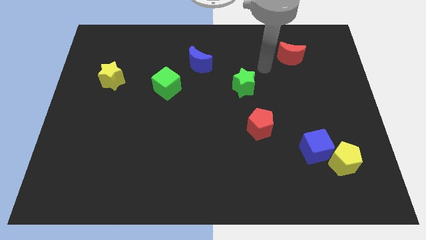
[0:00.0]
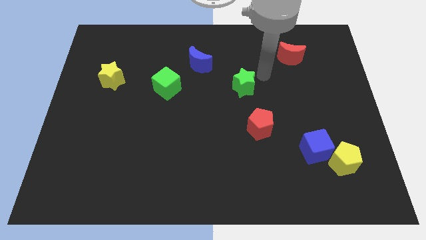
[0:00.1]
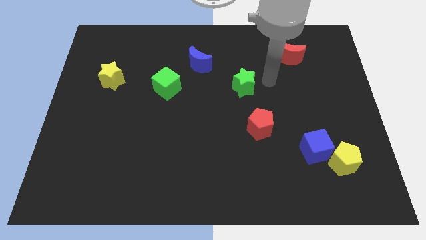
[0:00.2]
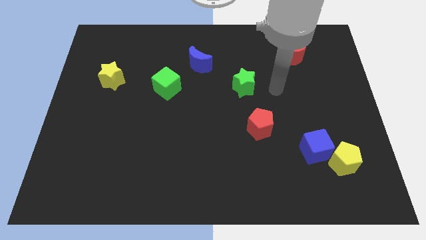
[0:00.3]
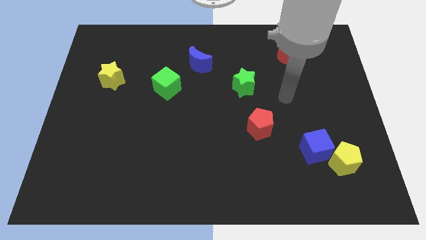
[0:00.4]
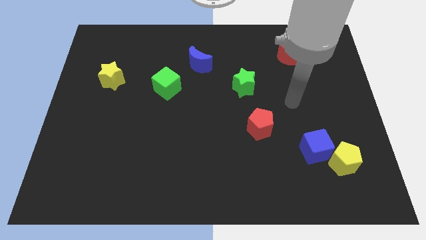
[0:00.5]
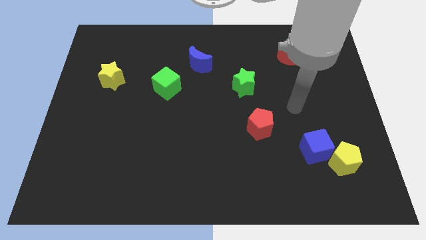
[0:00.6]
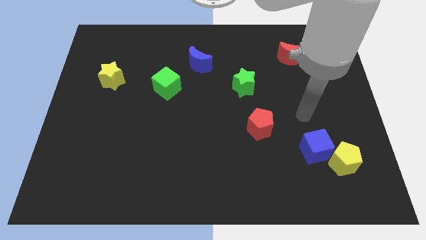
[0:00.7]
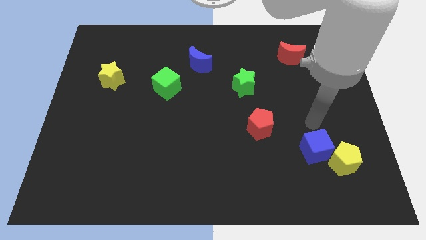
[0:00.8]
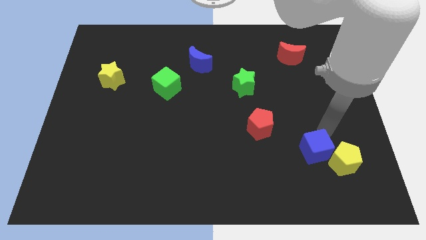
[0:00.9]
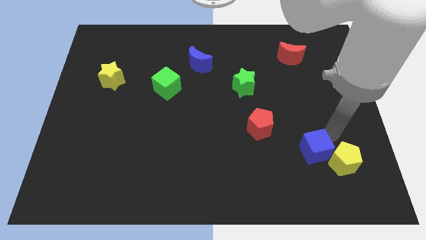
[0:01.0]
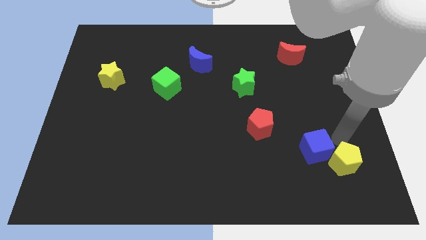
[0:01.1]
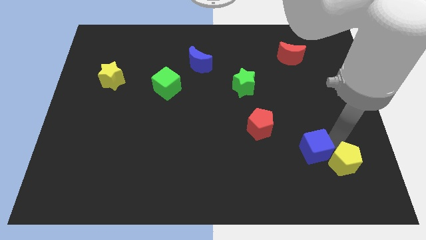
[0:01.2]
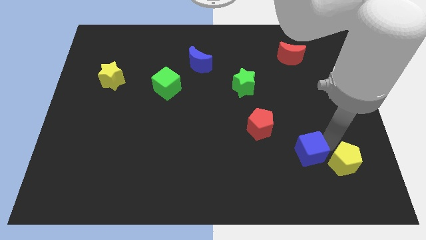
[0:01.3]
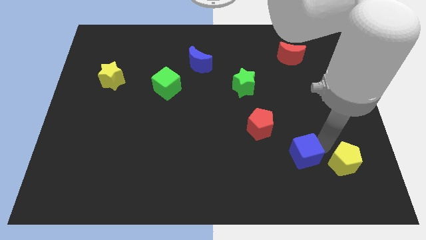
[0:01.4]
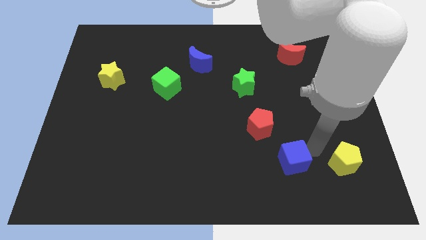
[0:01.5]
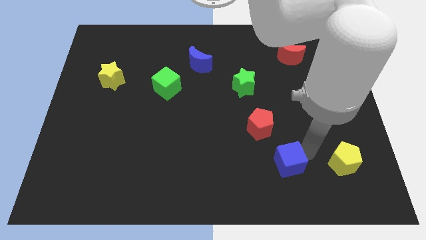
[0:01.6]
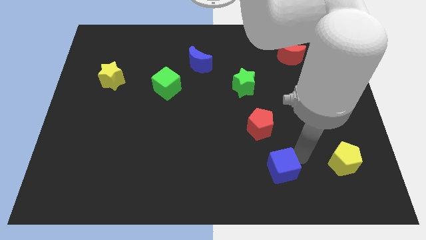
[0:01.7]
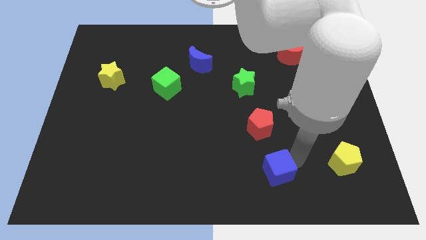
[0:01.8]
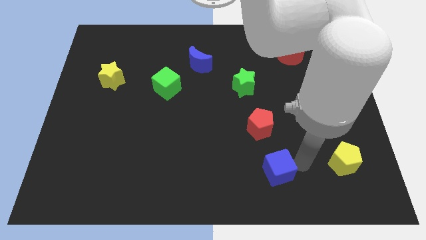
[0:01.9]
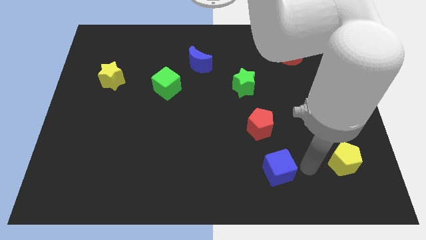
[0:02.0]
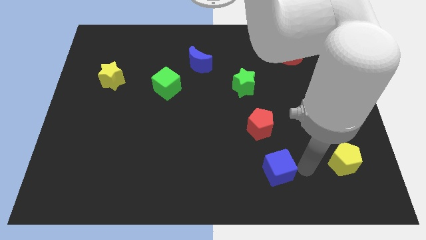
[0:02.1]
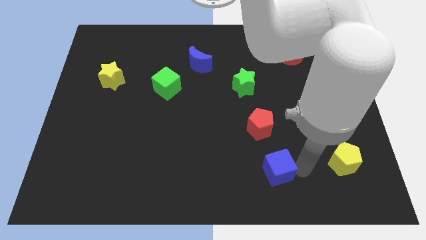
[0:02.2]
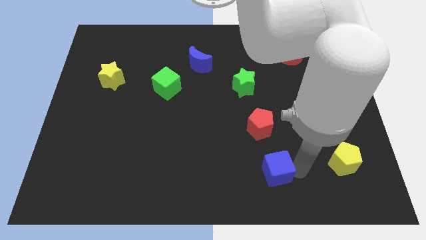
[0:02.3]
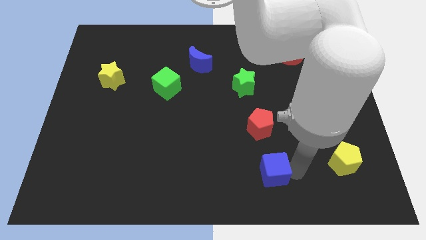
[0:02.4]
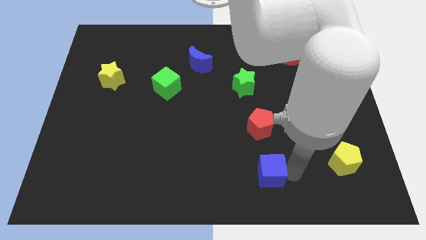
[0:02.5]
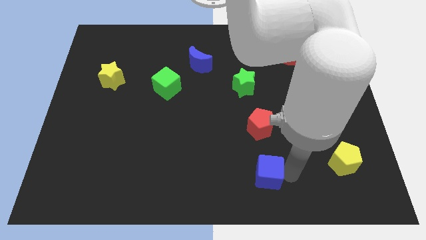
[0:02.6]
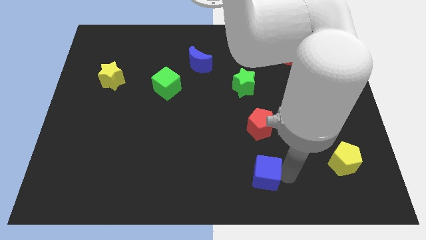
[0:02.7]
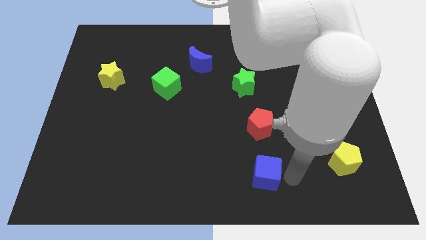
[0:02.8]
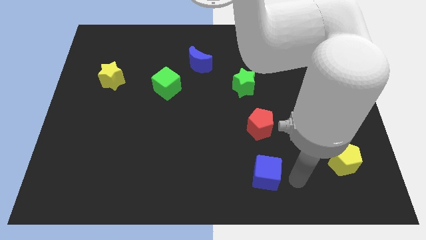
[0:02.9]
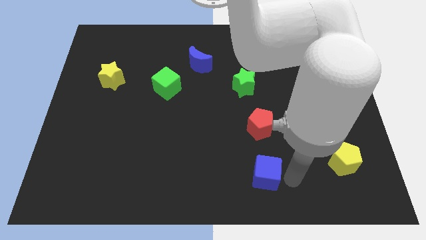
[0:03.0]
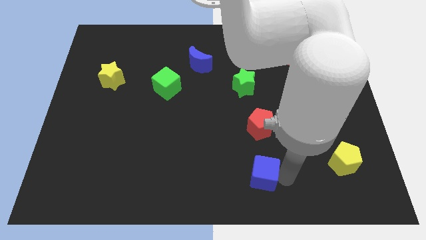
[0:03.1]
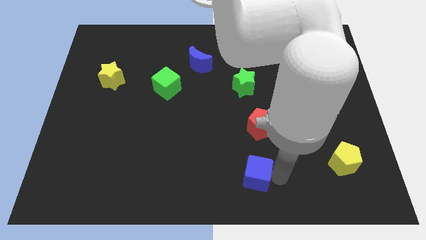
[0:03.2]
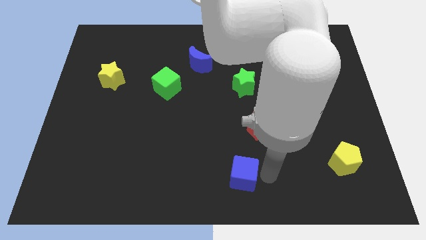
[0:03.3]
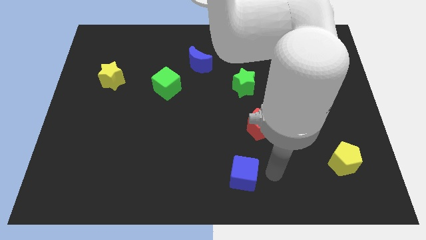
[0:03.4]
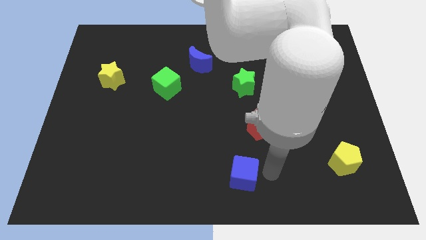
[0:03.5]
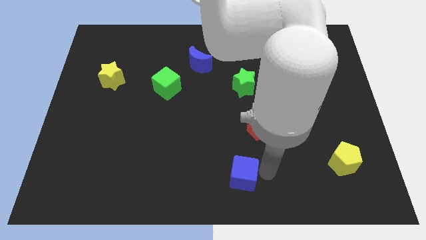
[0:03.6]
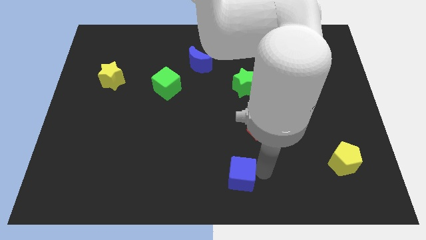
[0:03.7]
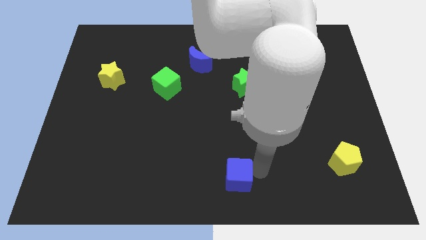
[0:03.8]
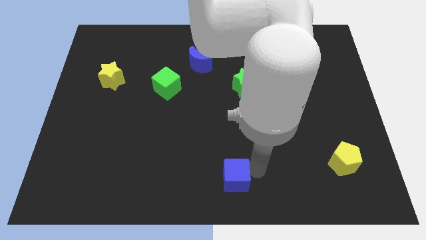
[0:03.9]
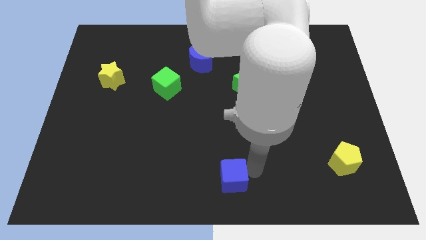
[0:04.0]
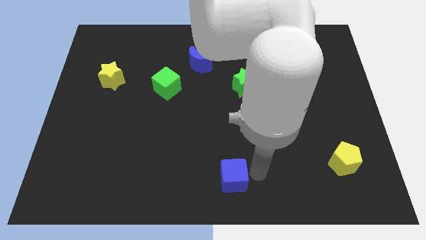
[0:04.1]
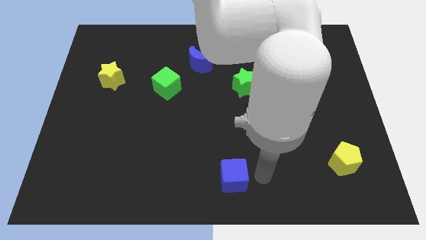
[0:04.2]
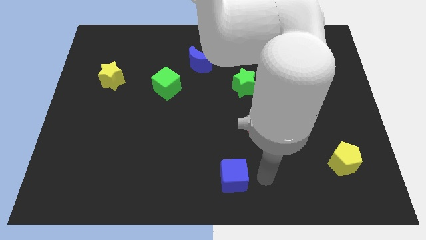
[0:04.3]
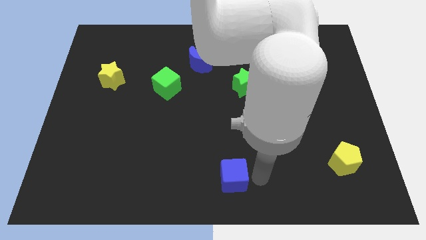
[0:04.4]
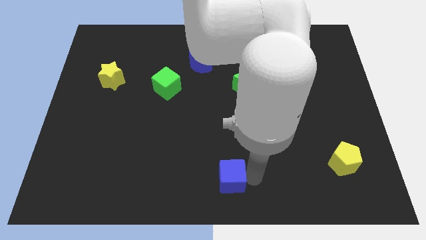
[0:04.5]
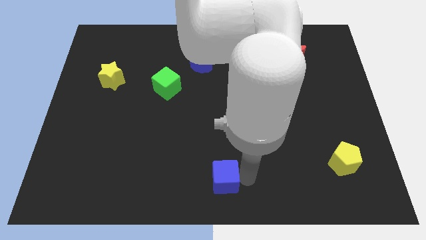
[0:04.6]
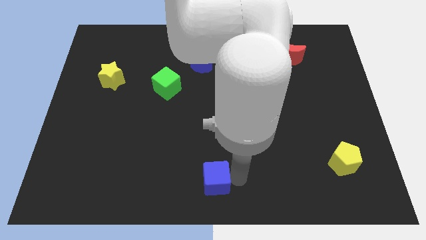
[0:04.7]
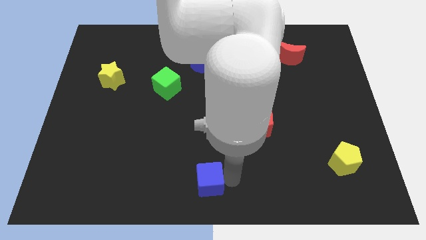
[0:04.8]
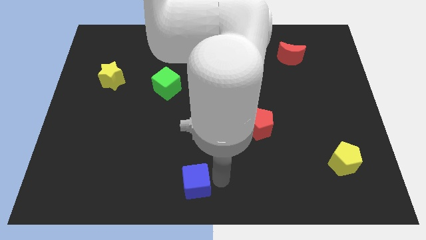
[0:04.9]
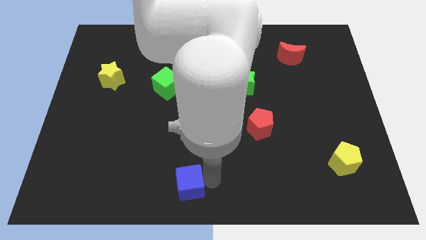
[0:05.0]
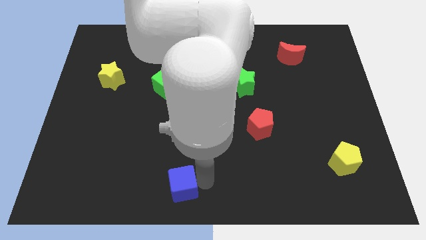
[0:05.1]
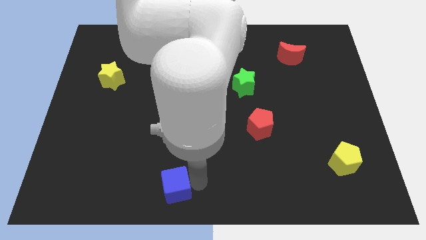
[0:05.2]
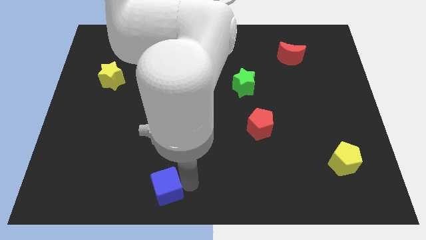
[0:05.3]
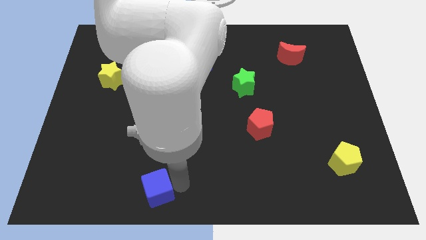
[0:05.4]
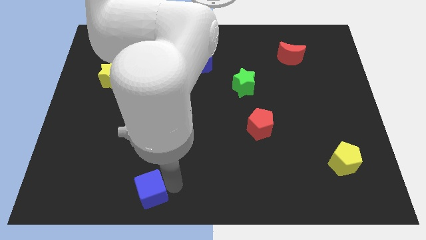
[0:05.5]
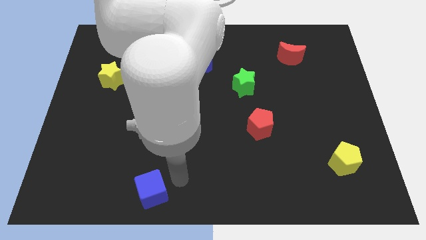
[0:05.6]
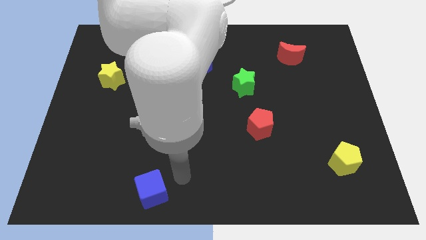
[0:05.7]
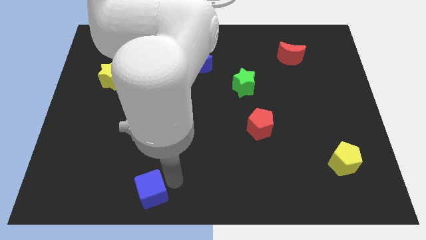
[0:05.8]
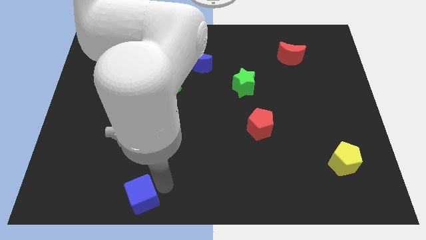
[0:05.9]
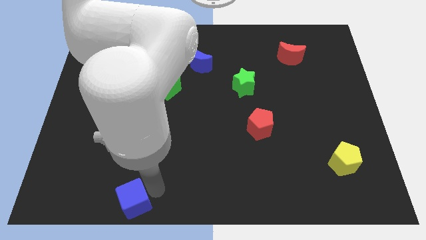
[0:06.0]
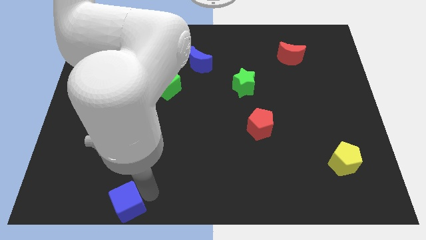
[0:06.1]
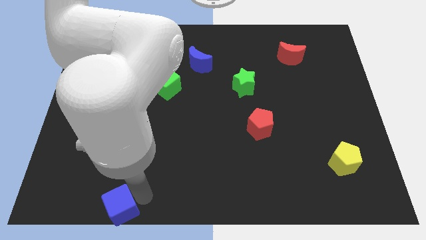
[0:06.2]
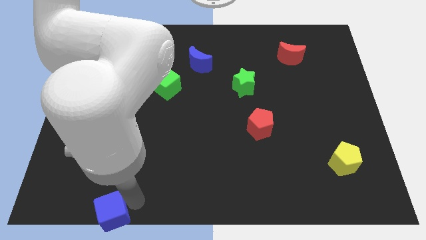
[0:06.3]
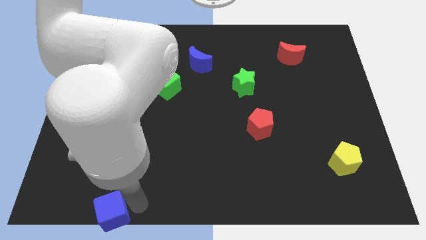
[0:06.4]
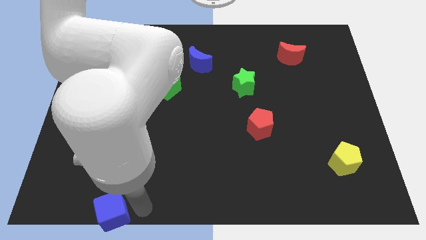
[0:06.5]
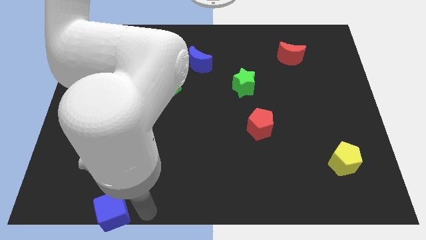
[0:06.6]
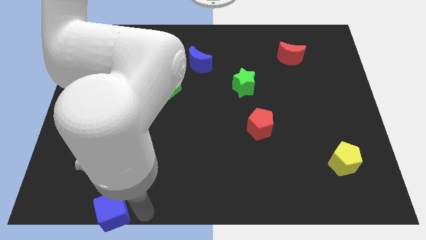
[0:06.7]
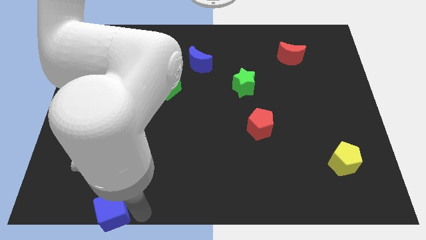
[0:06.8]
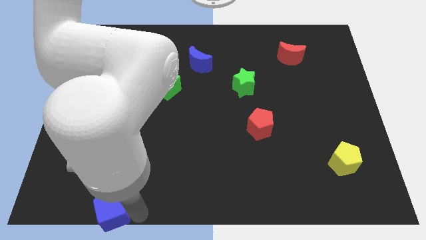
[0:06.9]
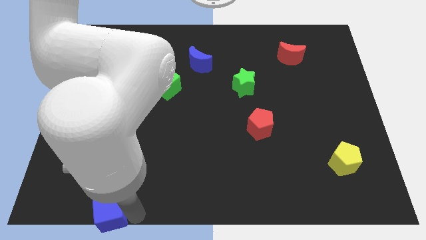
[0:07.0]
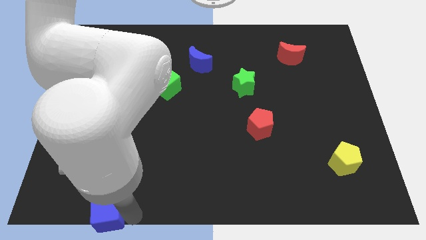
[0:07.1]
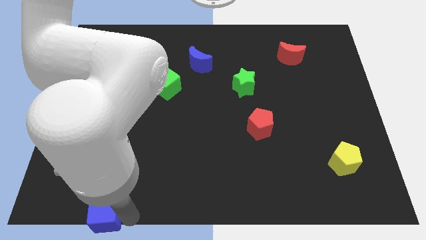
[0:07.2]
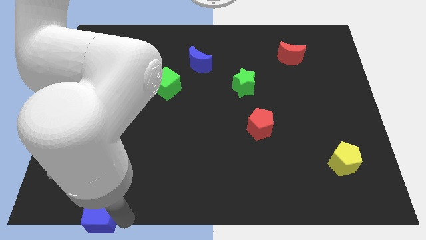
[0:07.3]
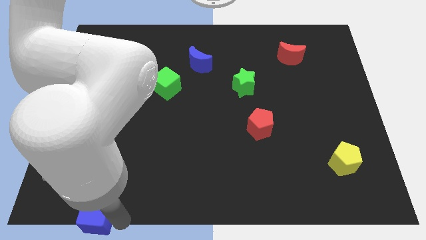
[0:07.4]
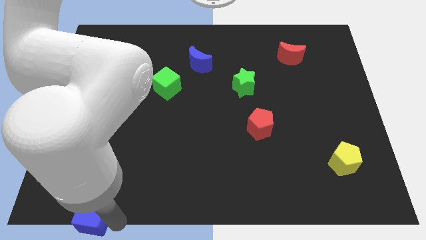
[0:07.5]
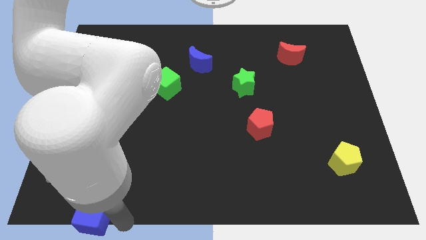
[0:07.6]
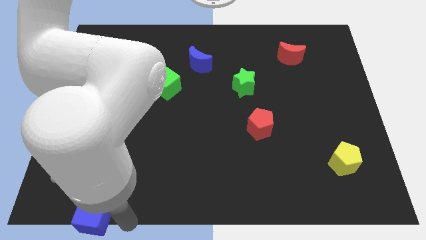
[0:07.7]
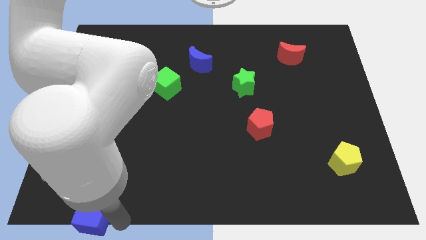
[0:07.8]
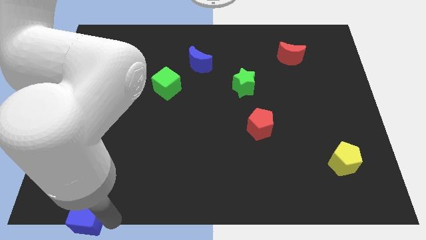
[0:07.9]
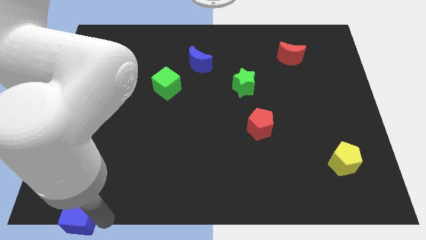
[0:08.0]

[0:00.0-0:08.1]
move the blue cube to the bottom left corner
